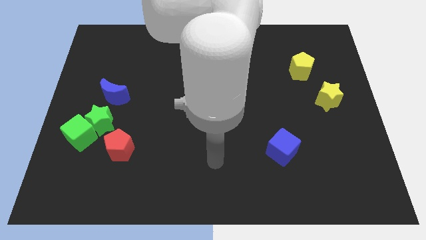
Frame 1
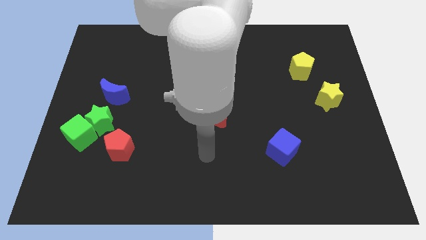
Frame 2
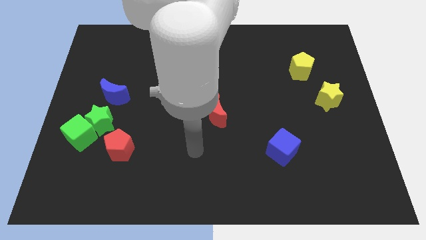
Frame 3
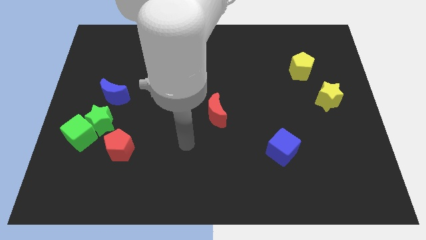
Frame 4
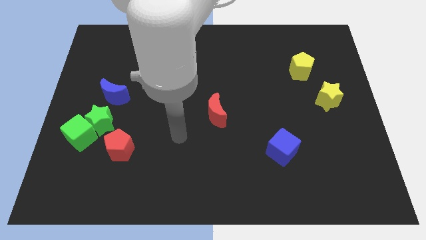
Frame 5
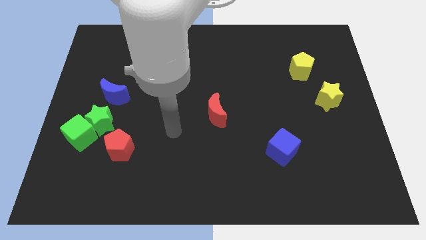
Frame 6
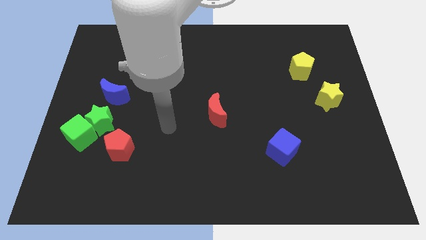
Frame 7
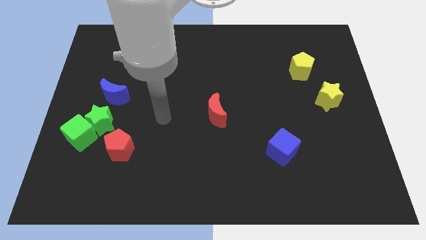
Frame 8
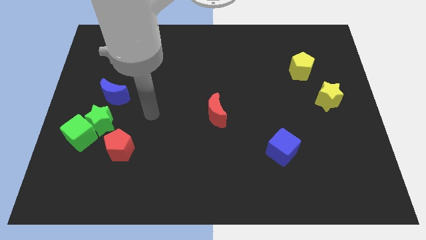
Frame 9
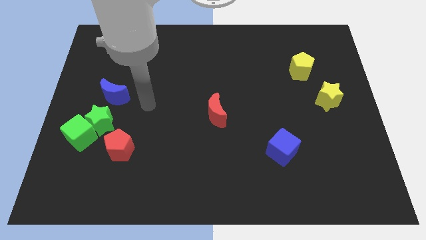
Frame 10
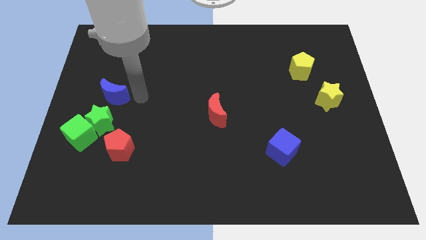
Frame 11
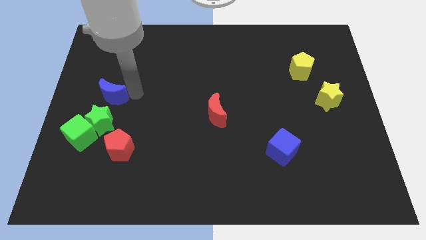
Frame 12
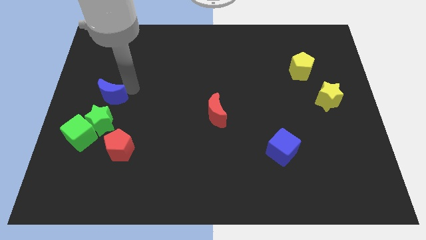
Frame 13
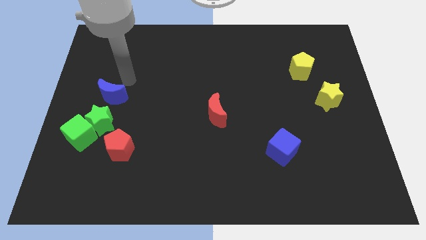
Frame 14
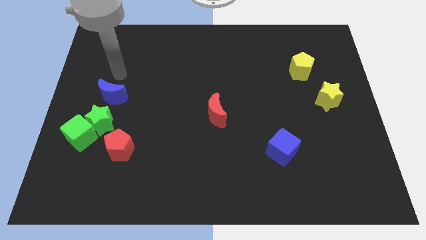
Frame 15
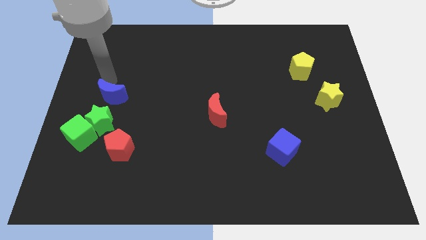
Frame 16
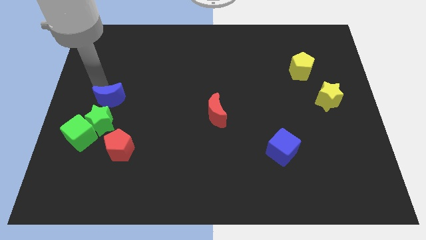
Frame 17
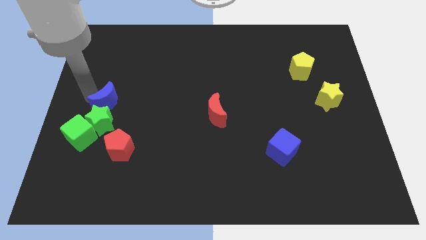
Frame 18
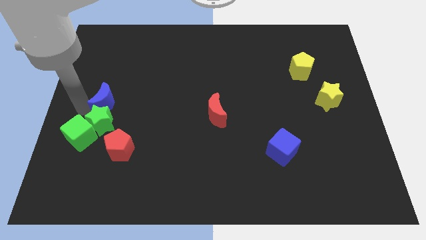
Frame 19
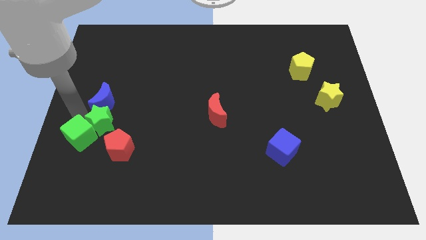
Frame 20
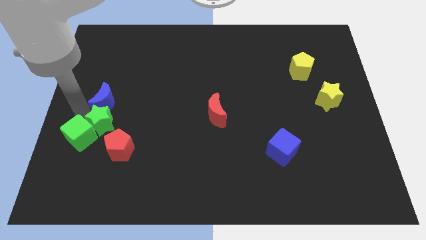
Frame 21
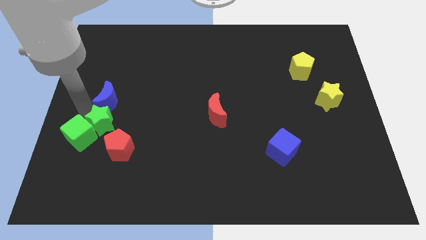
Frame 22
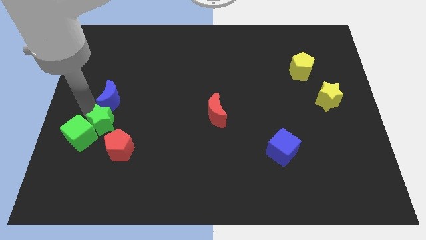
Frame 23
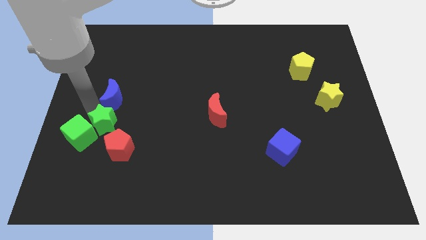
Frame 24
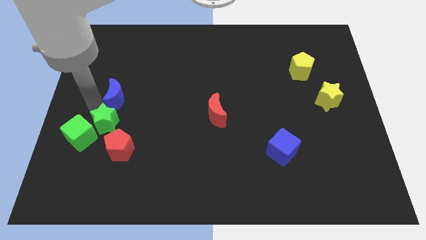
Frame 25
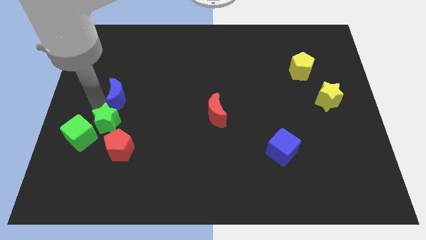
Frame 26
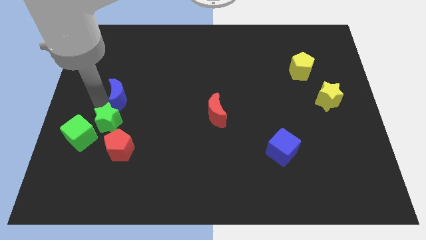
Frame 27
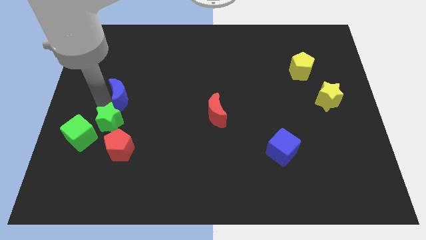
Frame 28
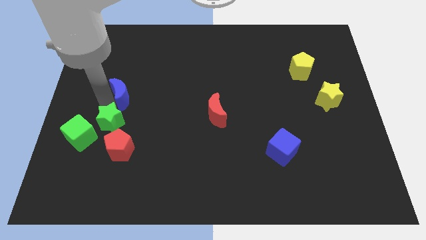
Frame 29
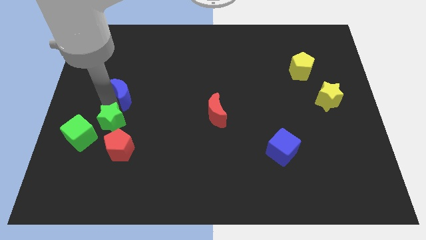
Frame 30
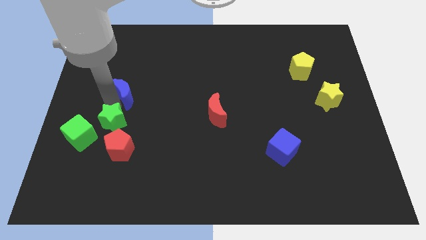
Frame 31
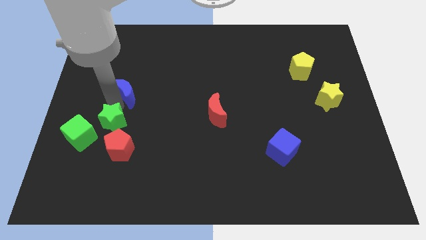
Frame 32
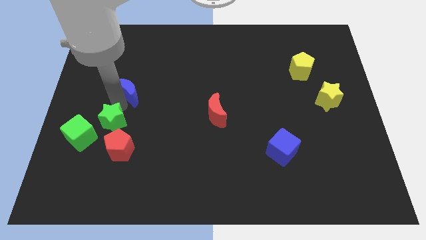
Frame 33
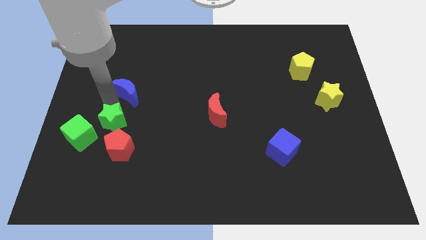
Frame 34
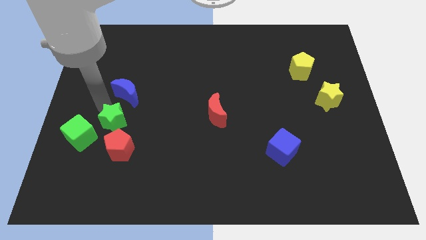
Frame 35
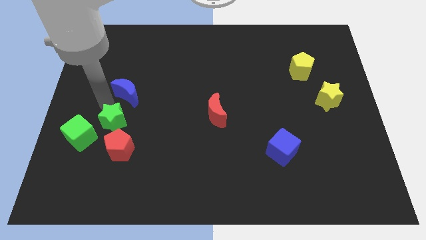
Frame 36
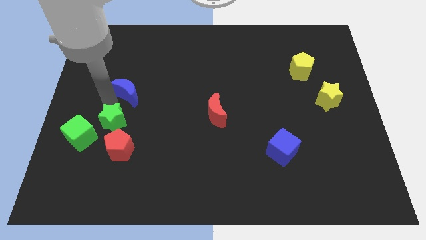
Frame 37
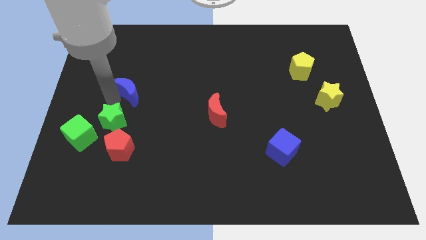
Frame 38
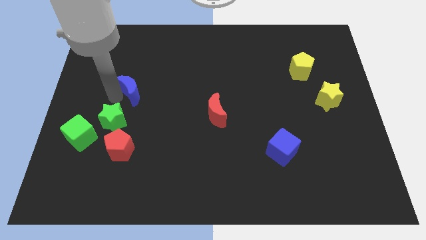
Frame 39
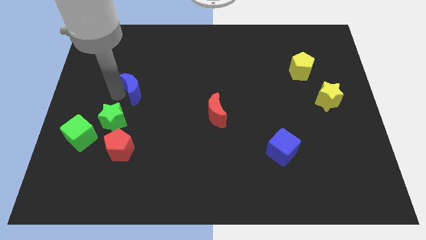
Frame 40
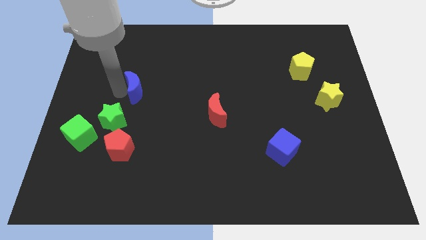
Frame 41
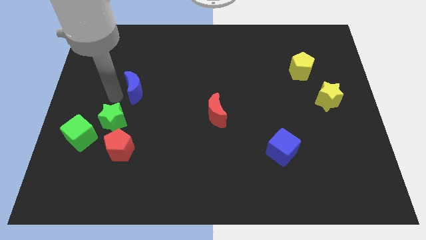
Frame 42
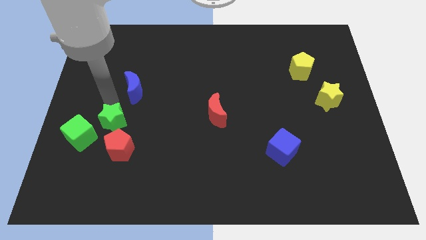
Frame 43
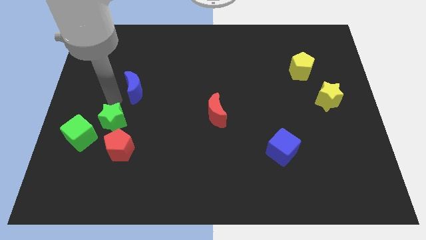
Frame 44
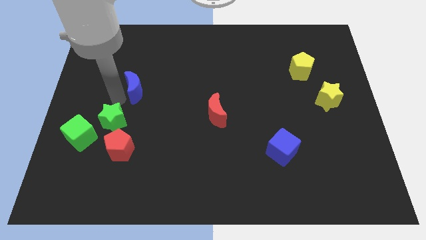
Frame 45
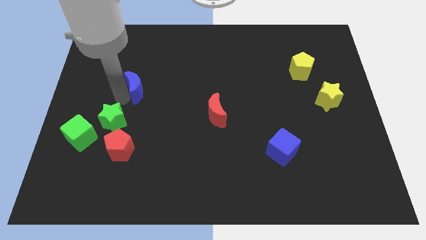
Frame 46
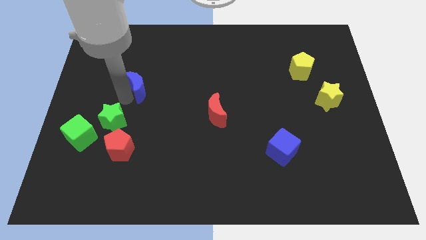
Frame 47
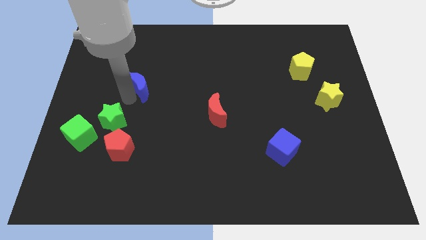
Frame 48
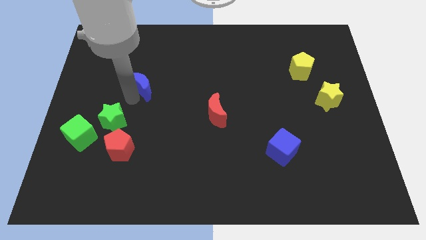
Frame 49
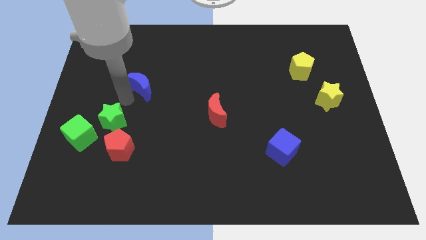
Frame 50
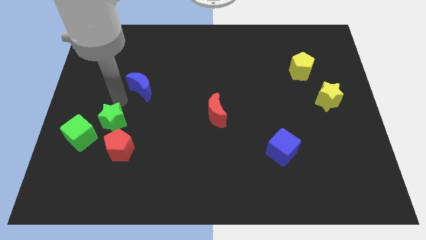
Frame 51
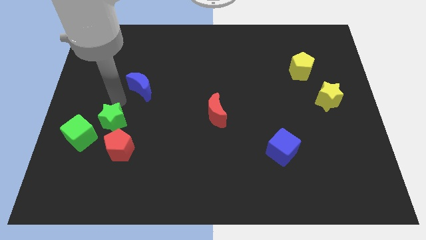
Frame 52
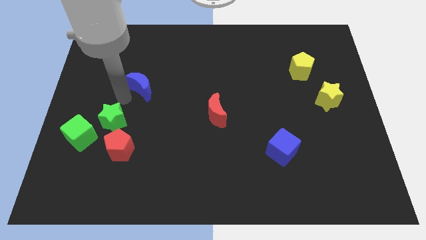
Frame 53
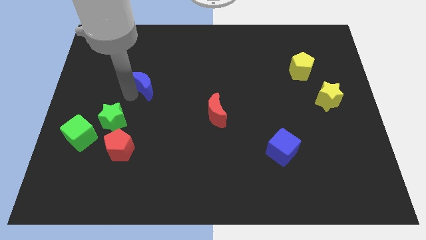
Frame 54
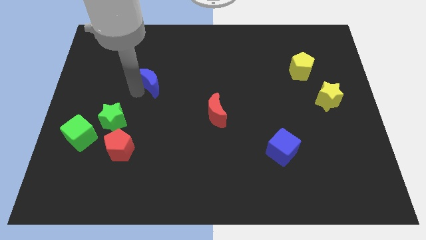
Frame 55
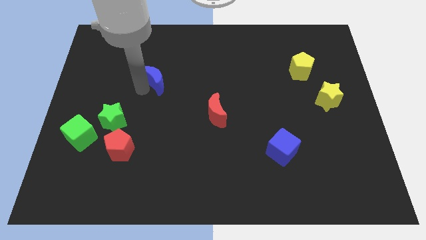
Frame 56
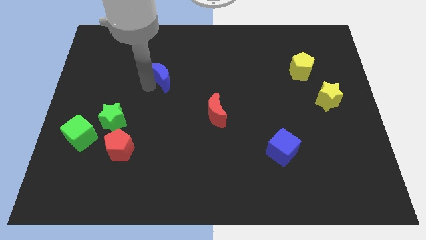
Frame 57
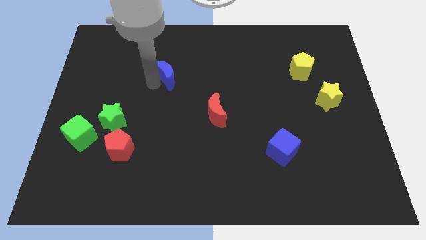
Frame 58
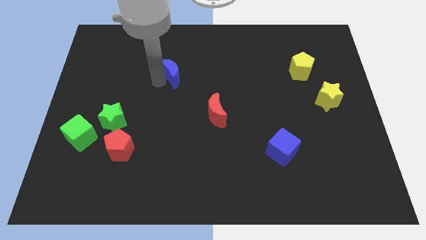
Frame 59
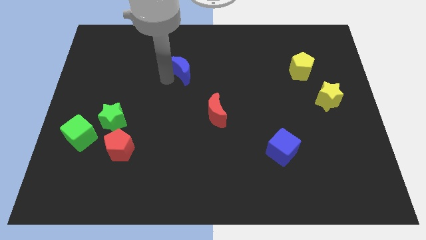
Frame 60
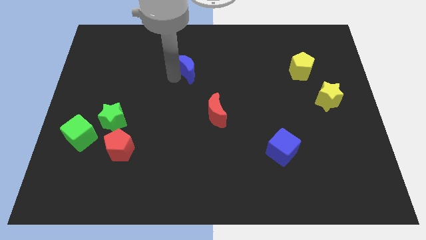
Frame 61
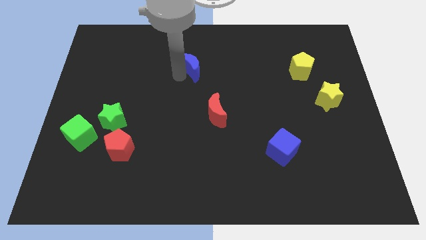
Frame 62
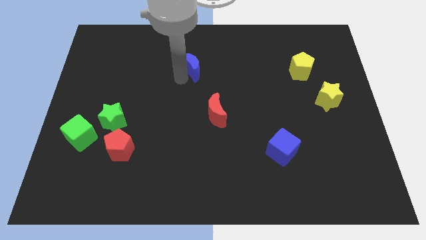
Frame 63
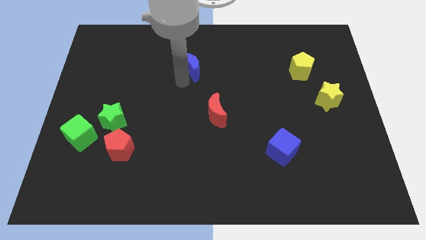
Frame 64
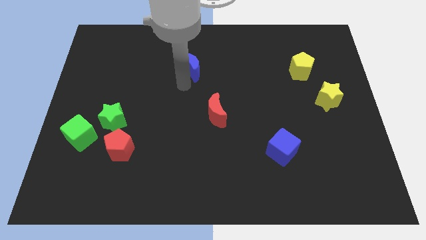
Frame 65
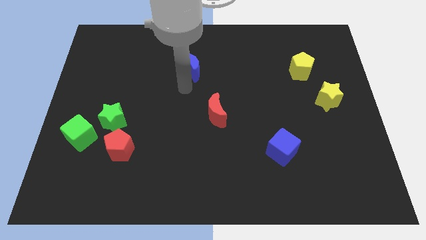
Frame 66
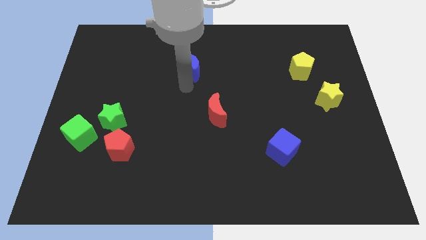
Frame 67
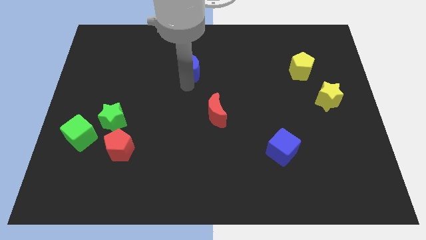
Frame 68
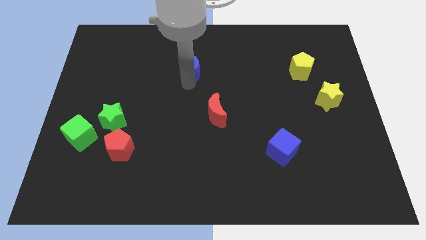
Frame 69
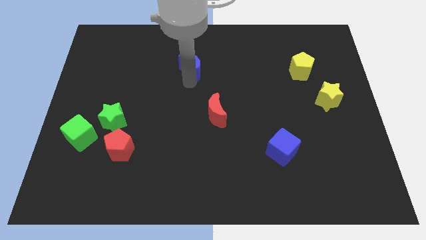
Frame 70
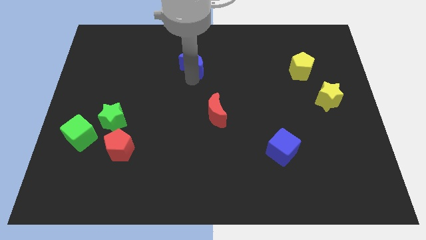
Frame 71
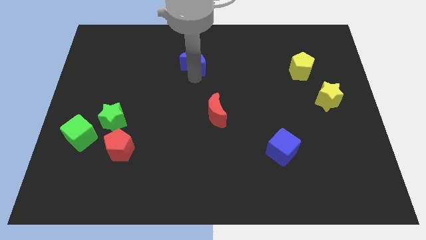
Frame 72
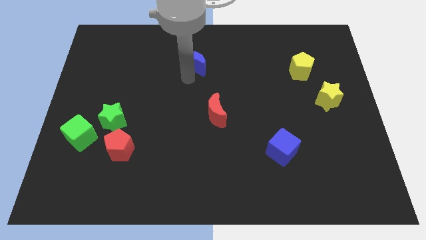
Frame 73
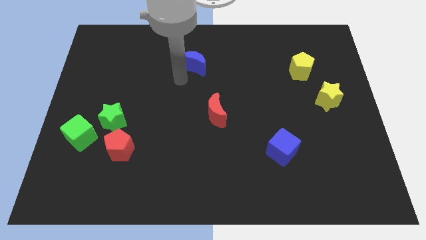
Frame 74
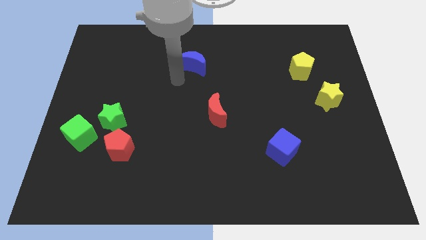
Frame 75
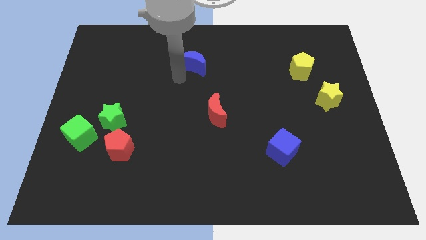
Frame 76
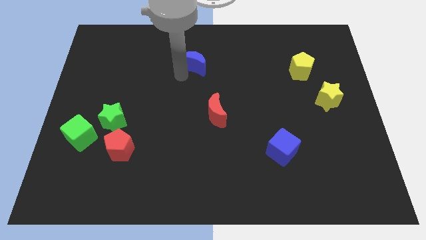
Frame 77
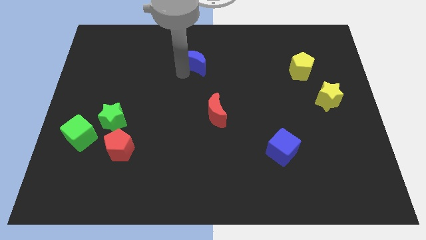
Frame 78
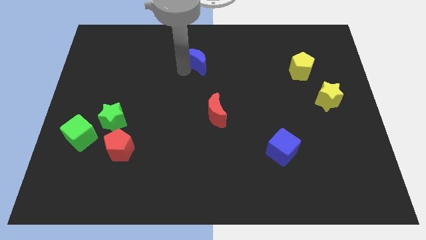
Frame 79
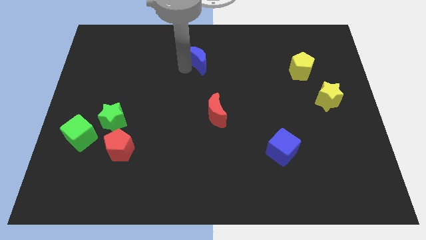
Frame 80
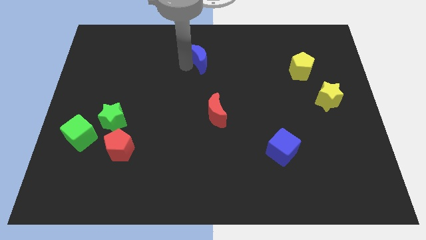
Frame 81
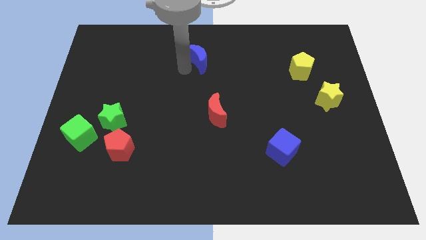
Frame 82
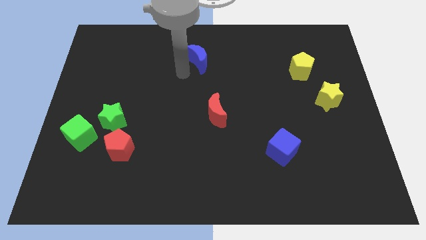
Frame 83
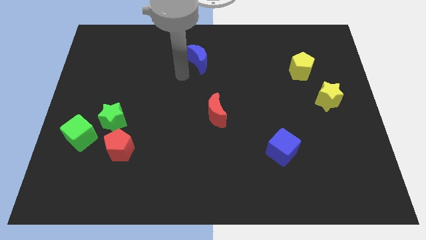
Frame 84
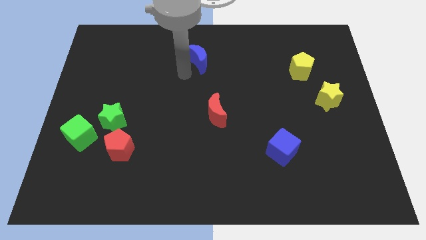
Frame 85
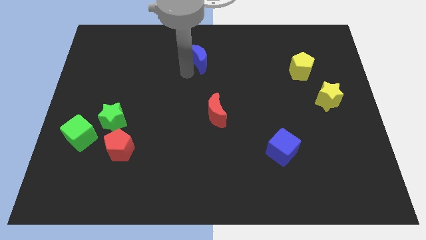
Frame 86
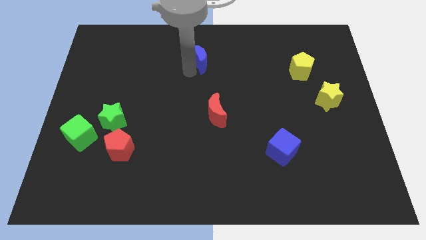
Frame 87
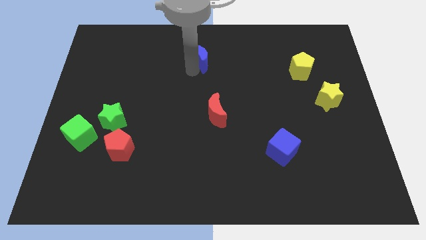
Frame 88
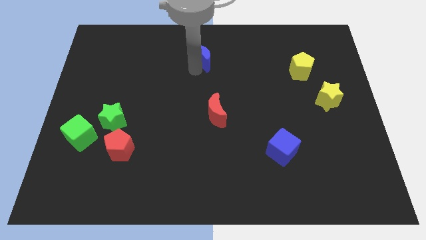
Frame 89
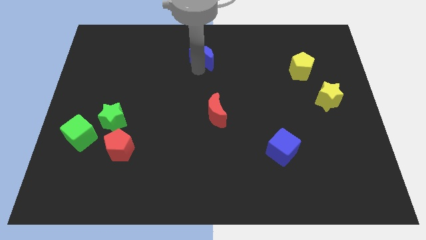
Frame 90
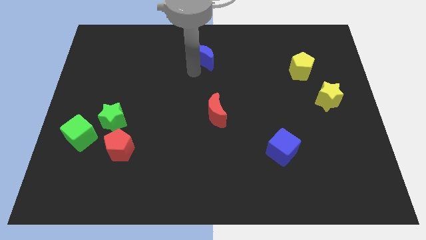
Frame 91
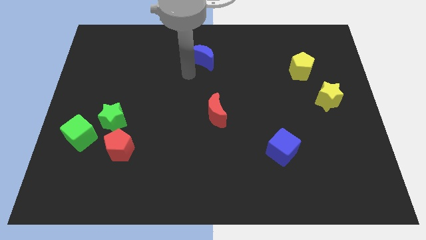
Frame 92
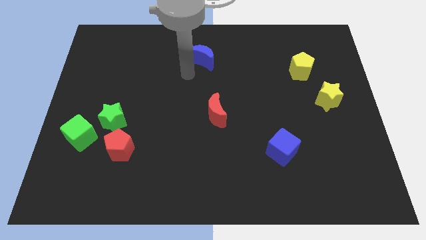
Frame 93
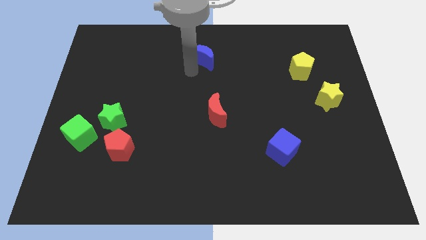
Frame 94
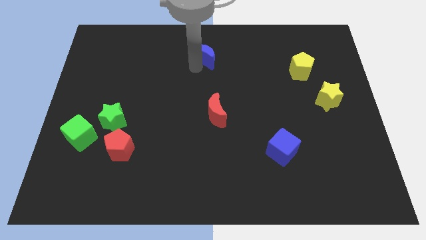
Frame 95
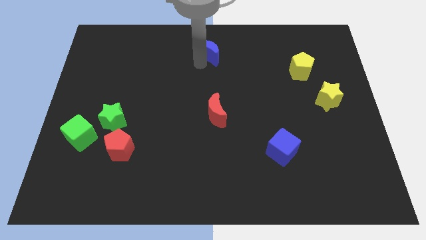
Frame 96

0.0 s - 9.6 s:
push the blue moon to the top
